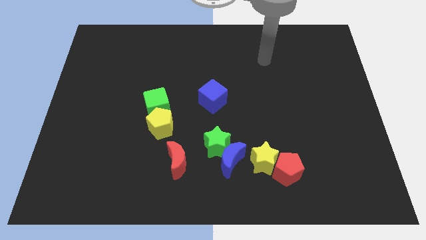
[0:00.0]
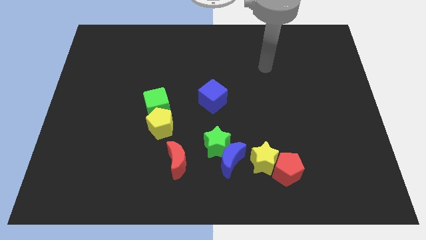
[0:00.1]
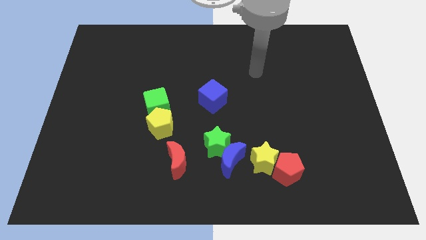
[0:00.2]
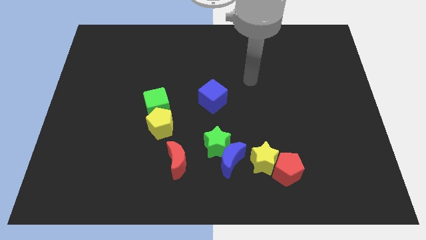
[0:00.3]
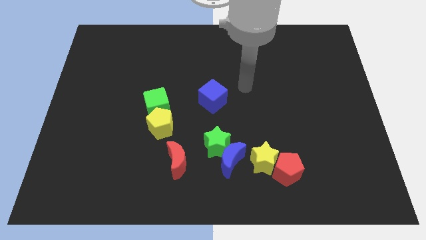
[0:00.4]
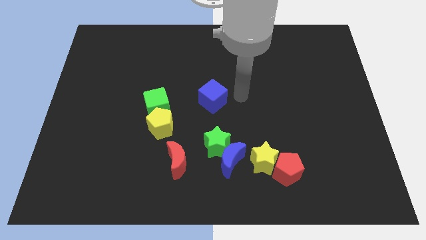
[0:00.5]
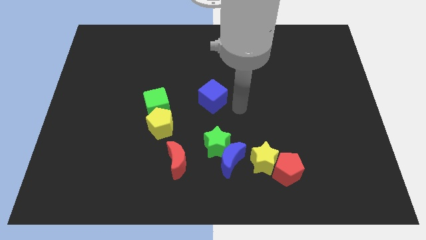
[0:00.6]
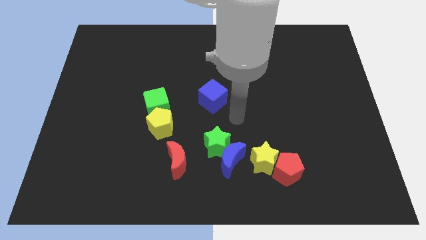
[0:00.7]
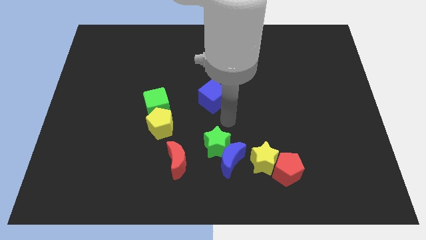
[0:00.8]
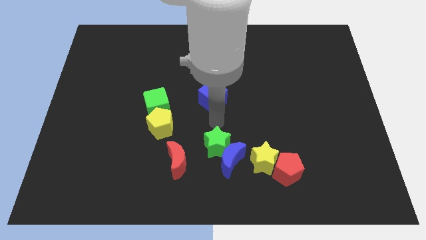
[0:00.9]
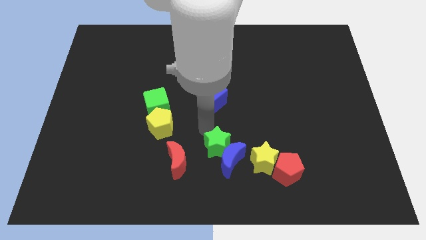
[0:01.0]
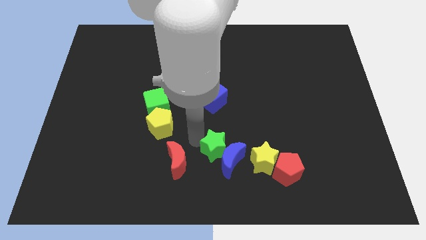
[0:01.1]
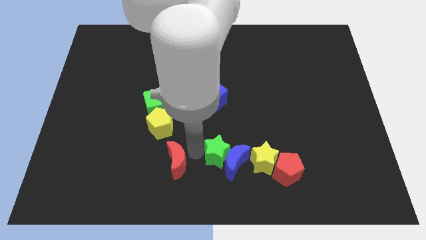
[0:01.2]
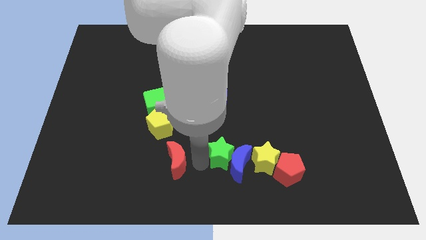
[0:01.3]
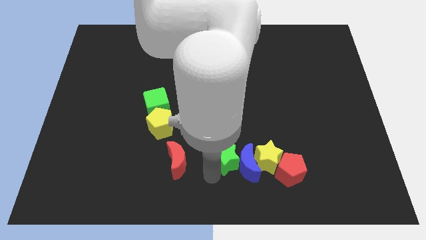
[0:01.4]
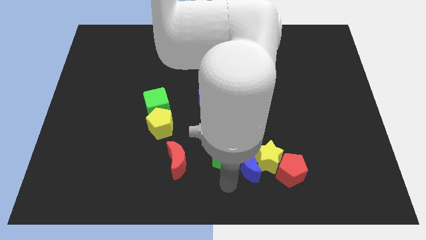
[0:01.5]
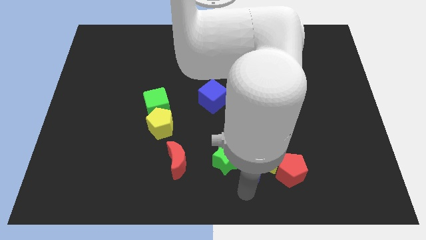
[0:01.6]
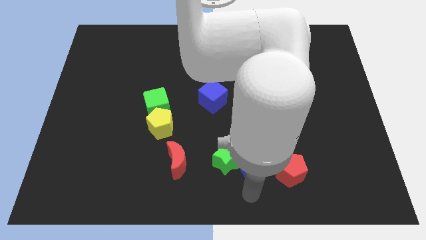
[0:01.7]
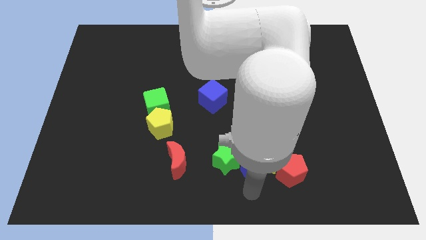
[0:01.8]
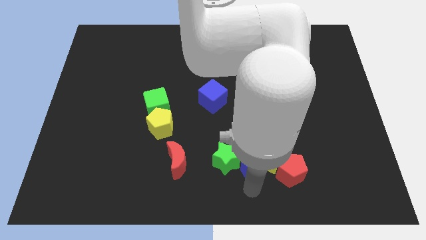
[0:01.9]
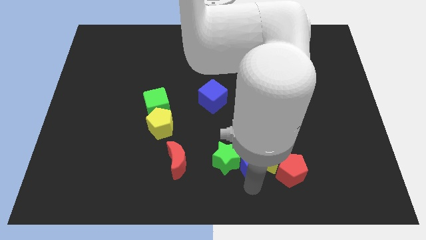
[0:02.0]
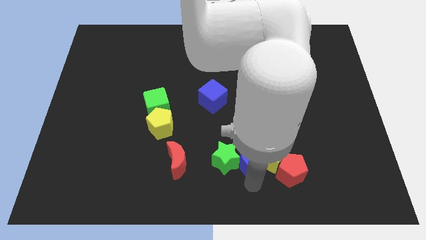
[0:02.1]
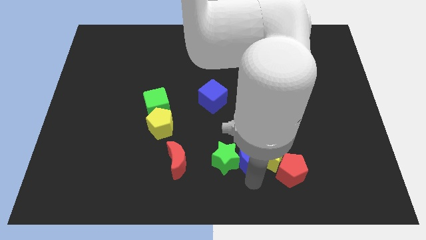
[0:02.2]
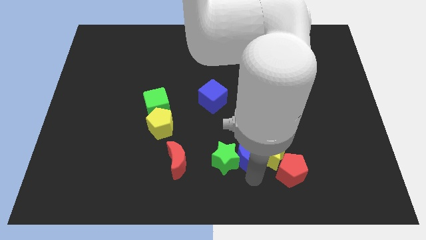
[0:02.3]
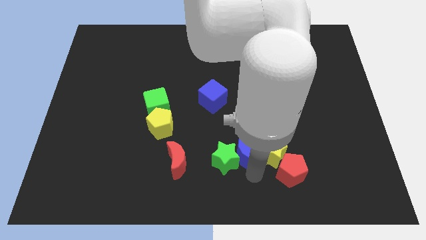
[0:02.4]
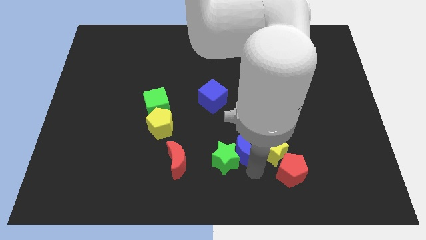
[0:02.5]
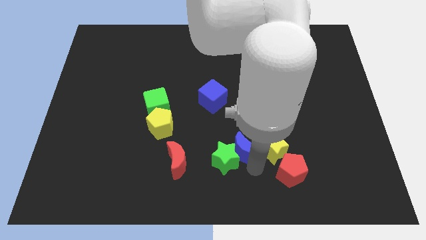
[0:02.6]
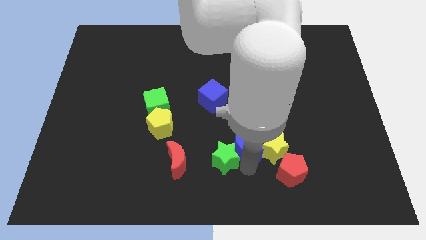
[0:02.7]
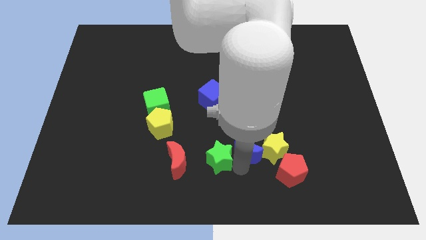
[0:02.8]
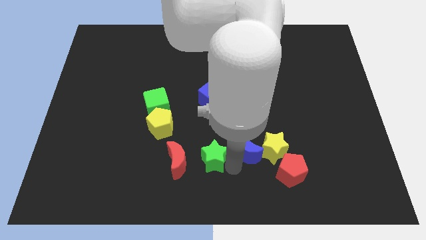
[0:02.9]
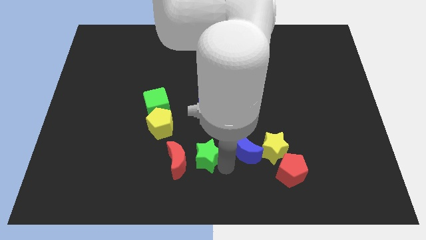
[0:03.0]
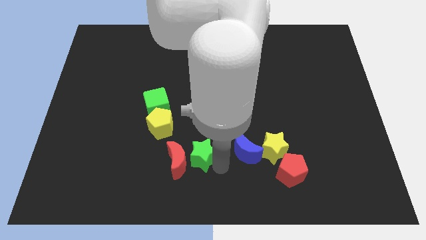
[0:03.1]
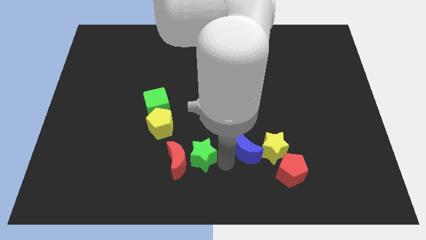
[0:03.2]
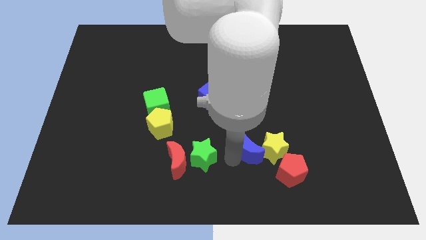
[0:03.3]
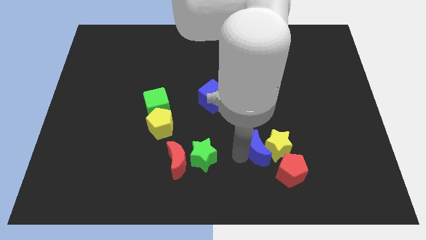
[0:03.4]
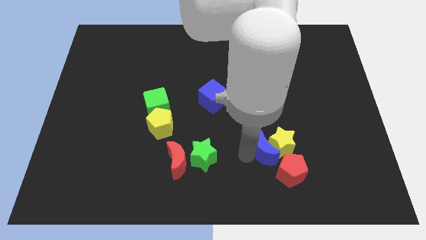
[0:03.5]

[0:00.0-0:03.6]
slide the blue moon a little right

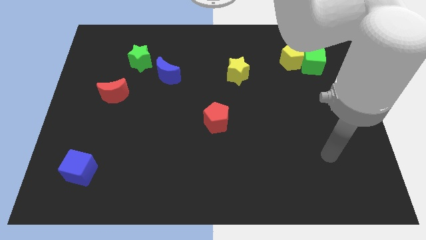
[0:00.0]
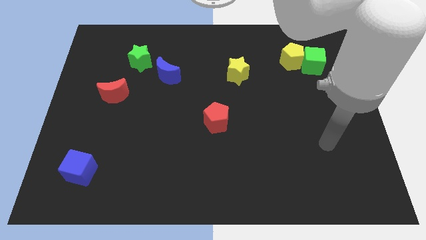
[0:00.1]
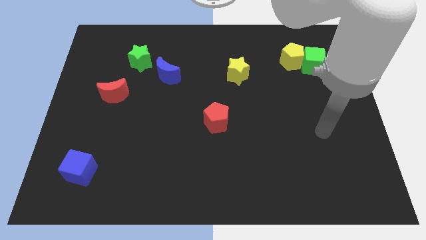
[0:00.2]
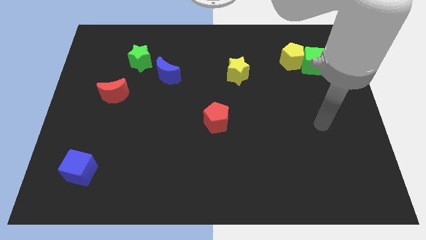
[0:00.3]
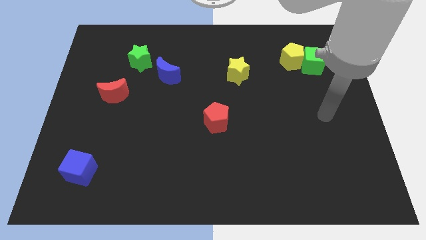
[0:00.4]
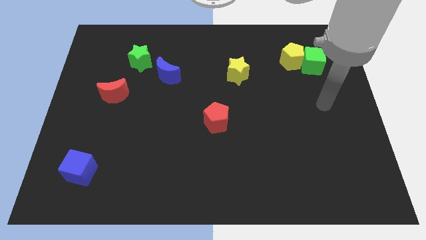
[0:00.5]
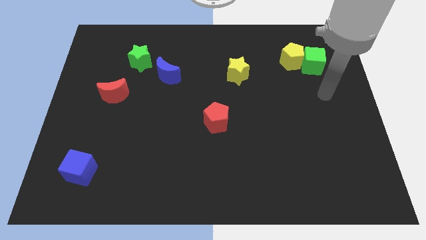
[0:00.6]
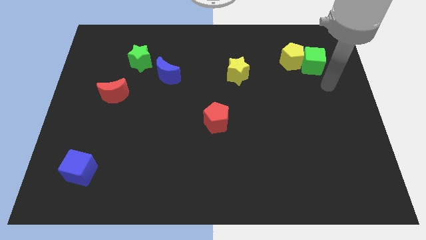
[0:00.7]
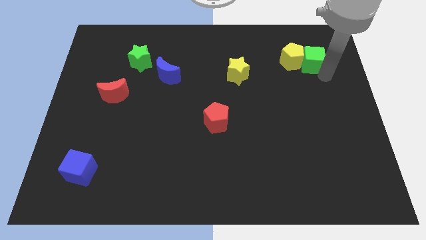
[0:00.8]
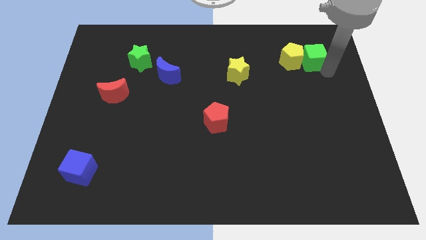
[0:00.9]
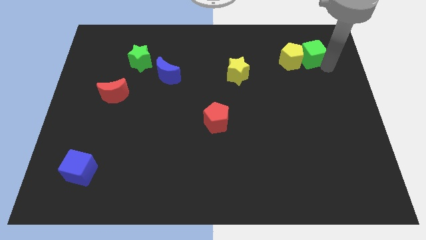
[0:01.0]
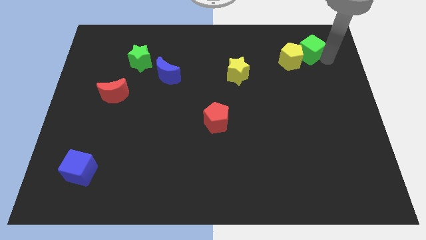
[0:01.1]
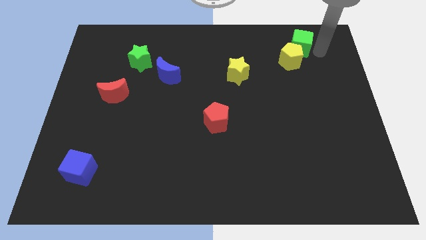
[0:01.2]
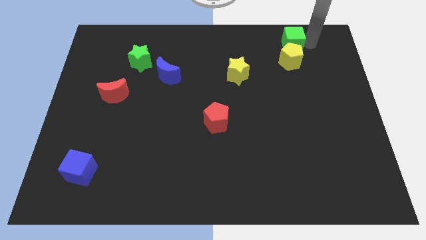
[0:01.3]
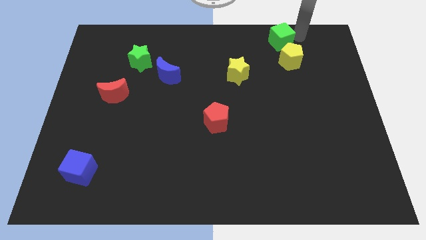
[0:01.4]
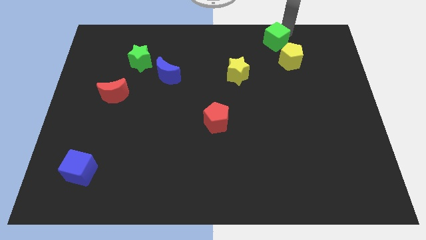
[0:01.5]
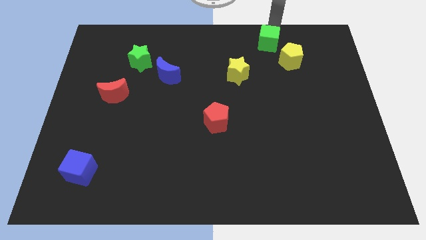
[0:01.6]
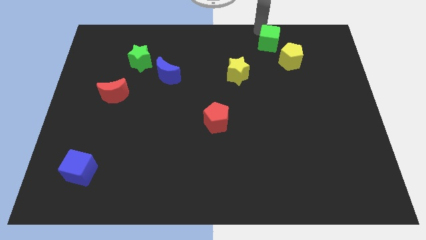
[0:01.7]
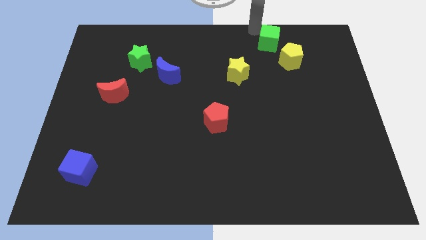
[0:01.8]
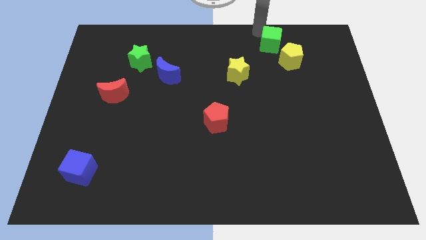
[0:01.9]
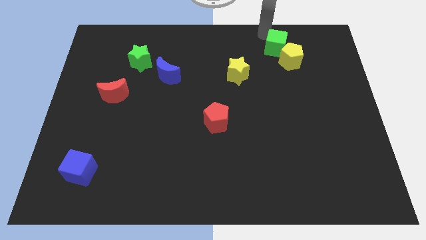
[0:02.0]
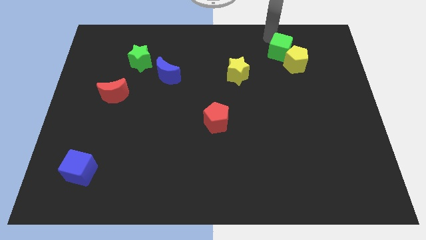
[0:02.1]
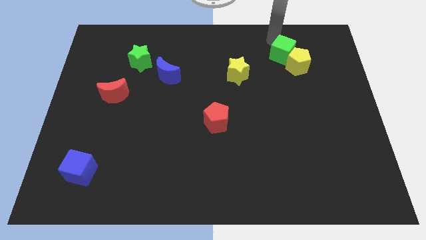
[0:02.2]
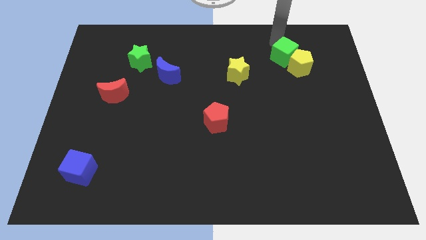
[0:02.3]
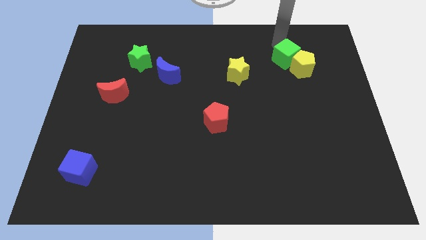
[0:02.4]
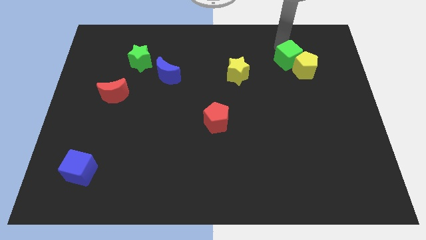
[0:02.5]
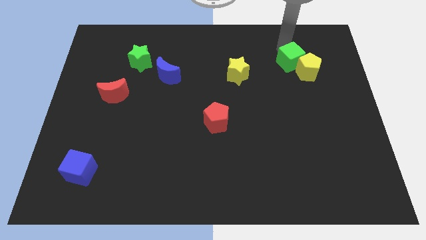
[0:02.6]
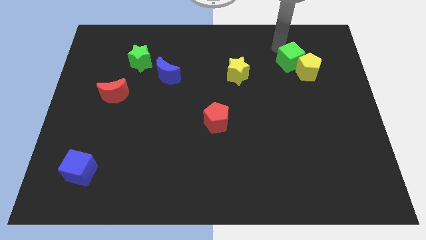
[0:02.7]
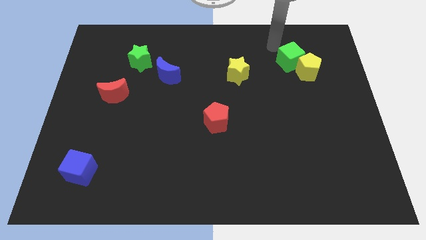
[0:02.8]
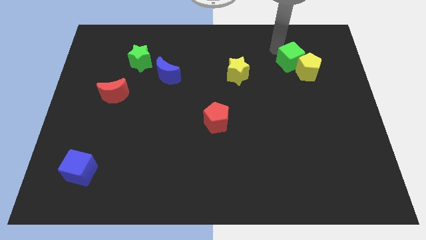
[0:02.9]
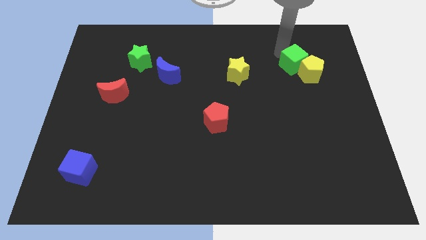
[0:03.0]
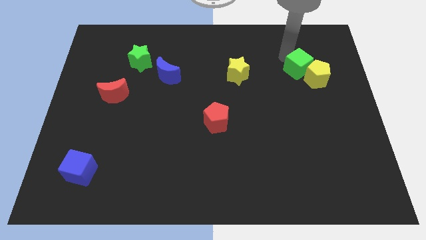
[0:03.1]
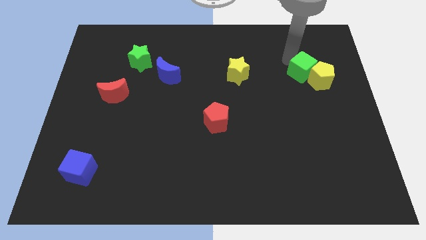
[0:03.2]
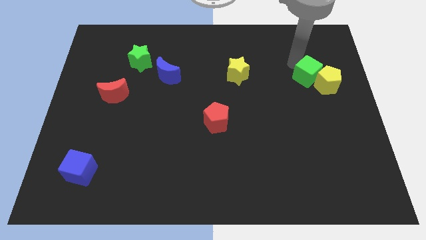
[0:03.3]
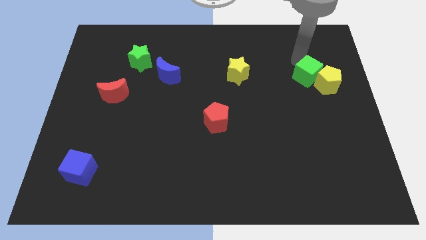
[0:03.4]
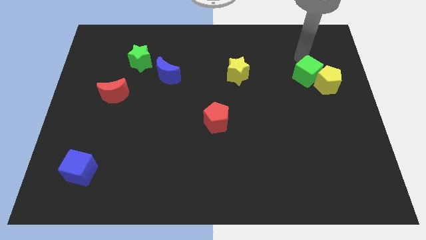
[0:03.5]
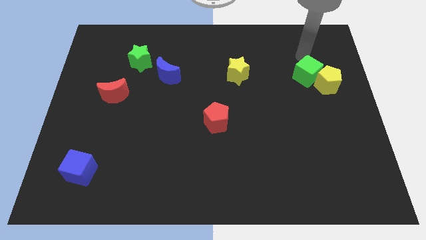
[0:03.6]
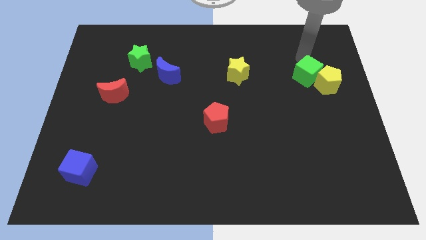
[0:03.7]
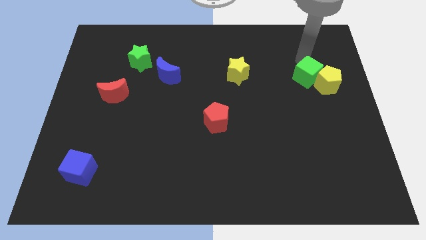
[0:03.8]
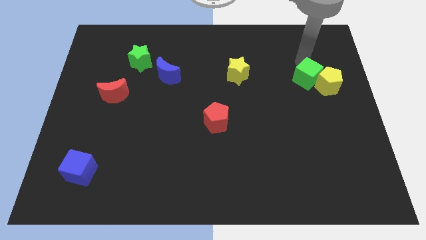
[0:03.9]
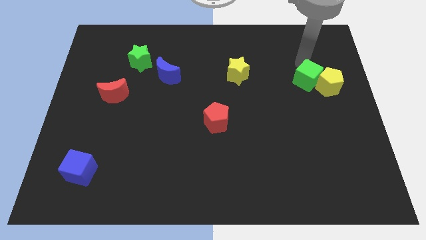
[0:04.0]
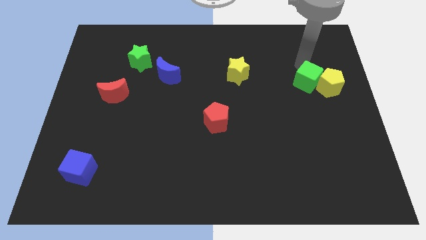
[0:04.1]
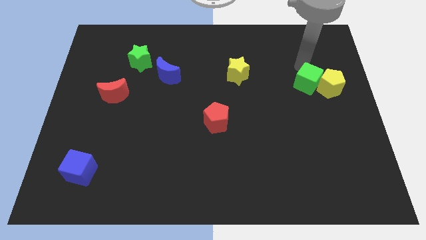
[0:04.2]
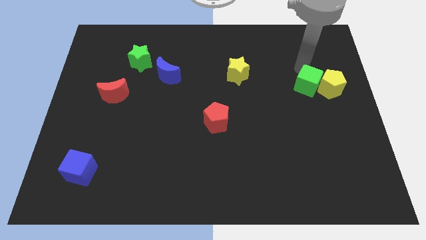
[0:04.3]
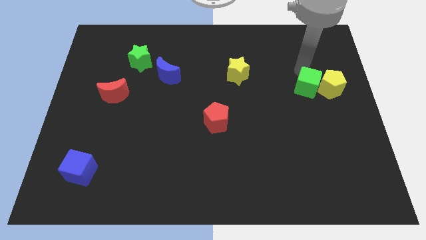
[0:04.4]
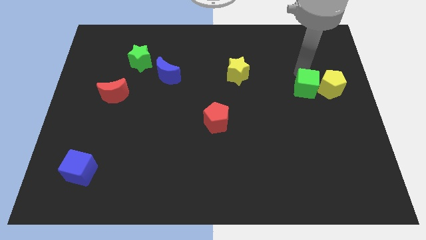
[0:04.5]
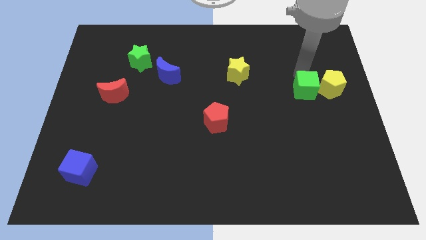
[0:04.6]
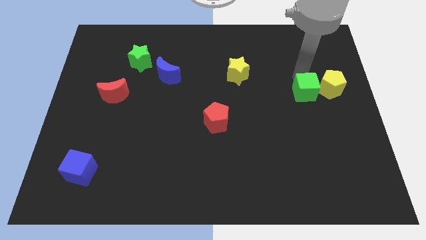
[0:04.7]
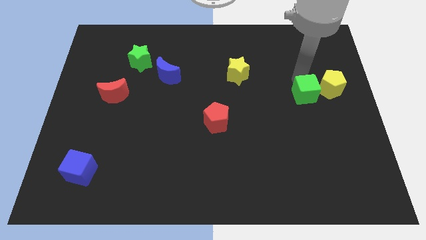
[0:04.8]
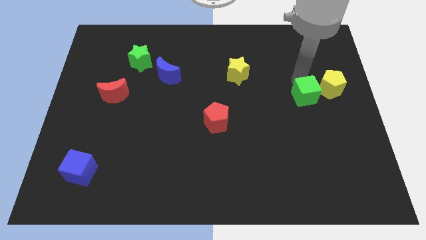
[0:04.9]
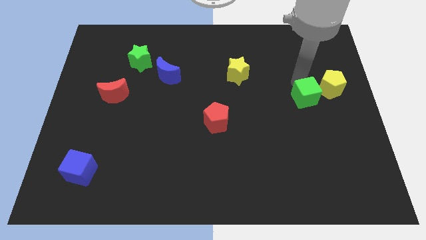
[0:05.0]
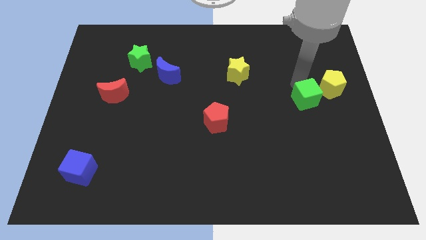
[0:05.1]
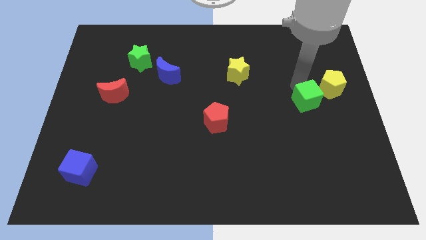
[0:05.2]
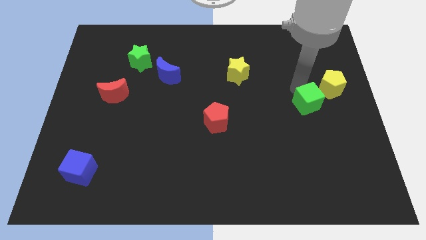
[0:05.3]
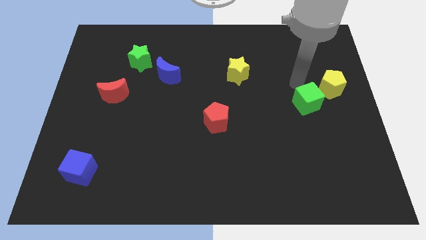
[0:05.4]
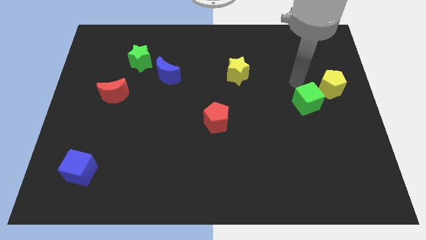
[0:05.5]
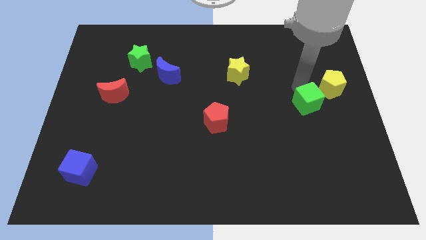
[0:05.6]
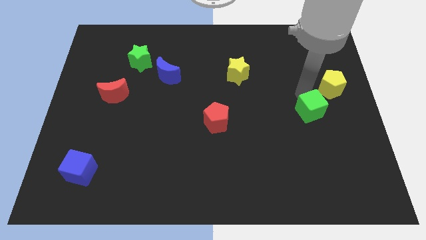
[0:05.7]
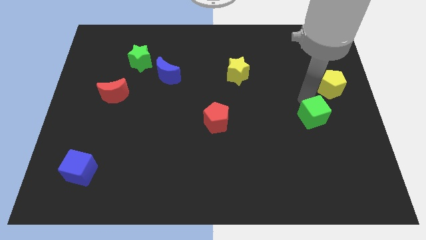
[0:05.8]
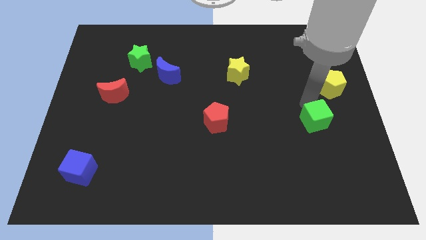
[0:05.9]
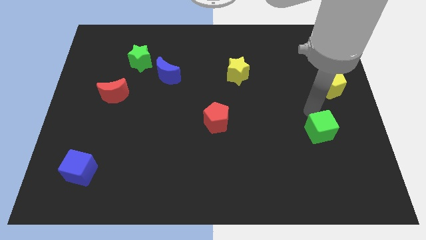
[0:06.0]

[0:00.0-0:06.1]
slide the green cube downwards
